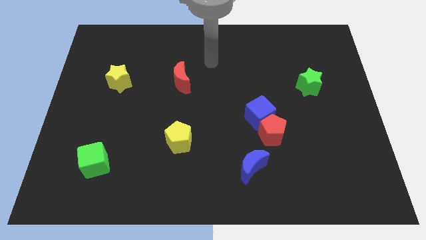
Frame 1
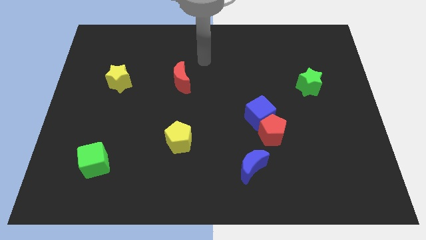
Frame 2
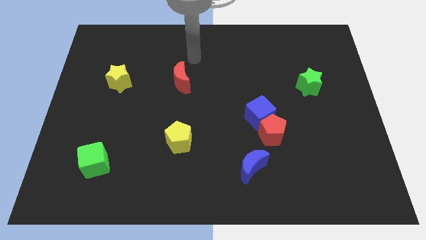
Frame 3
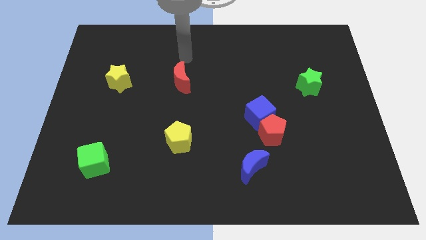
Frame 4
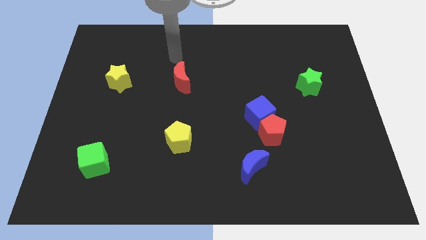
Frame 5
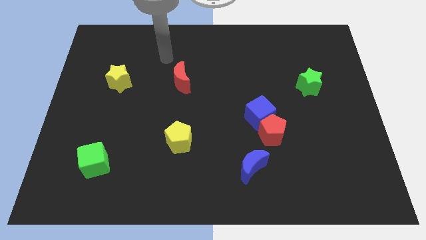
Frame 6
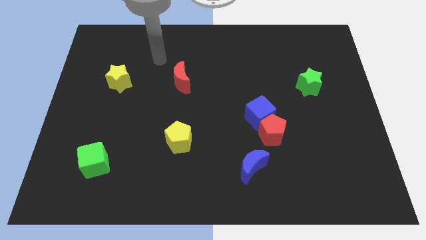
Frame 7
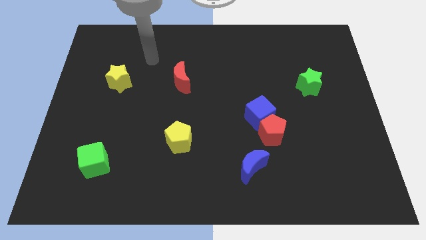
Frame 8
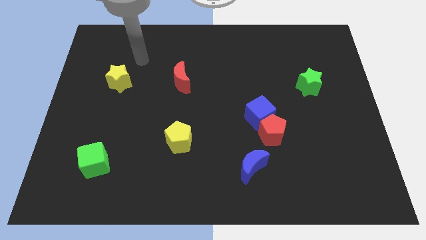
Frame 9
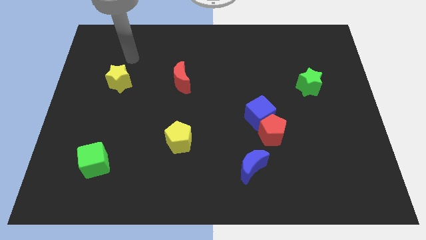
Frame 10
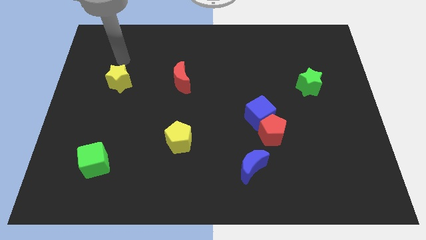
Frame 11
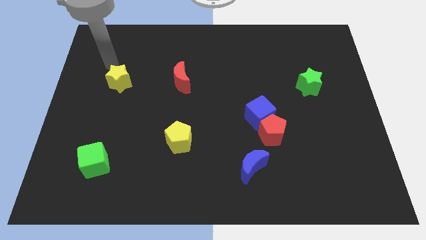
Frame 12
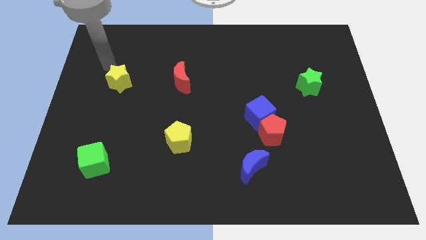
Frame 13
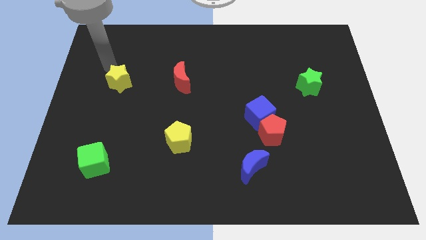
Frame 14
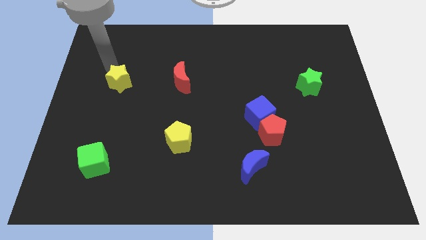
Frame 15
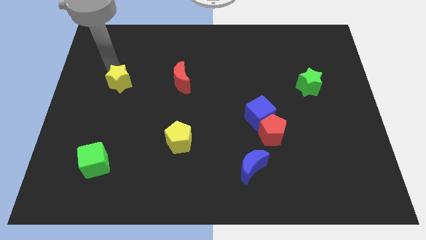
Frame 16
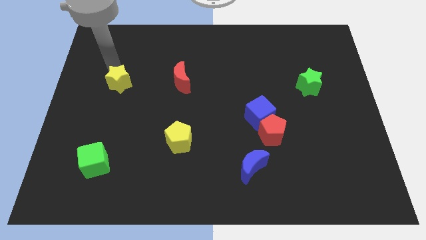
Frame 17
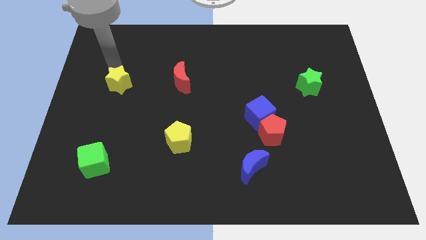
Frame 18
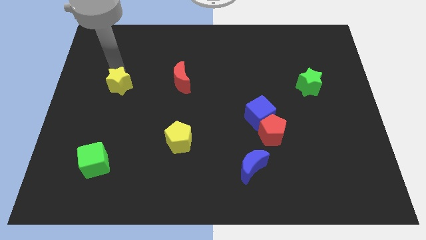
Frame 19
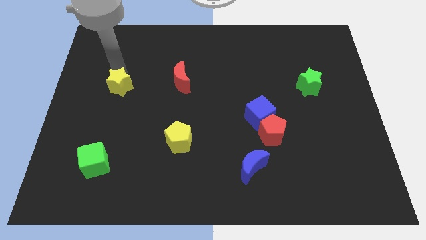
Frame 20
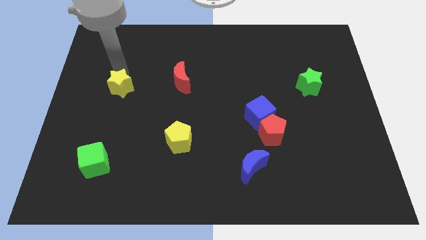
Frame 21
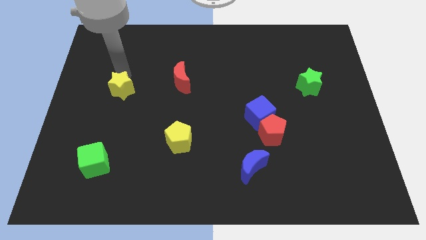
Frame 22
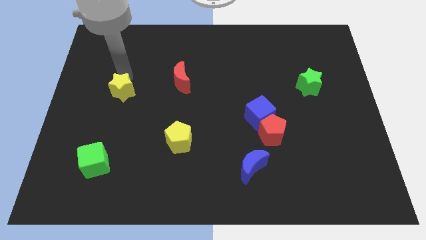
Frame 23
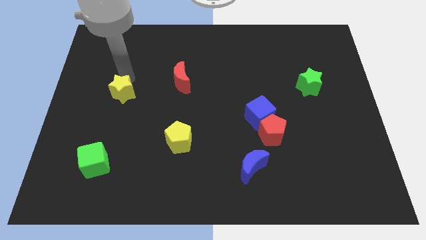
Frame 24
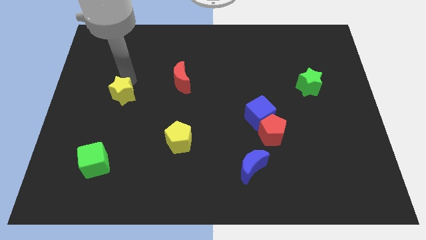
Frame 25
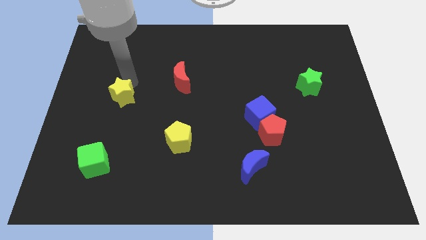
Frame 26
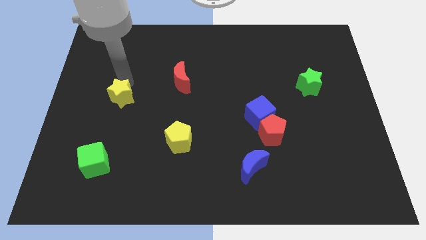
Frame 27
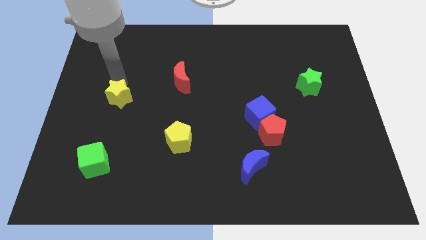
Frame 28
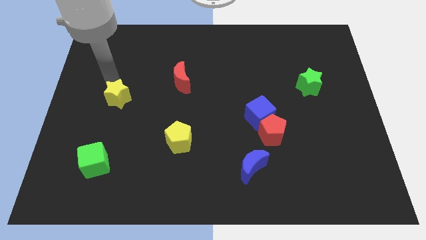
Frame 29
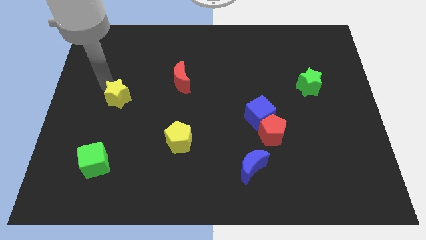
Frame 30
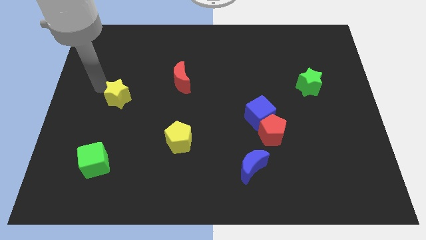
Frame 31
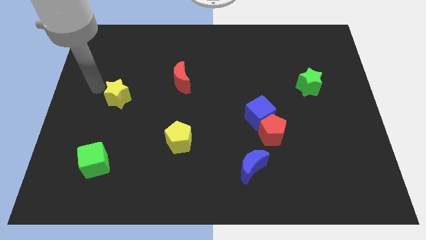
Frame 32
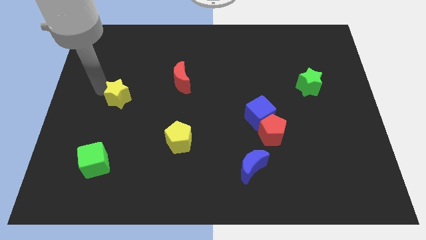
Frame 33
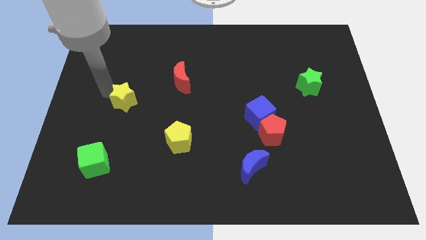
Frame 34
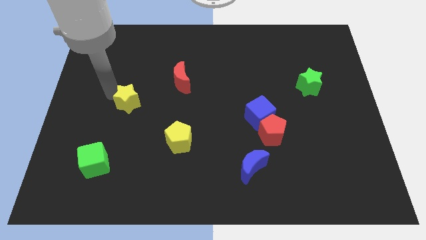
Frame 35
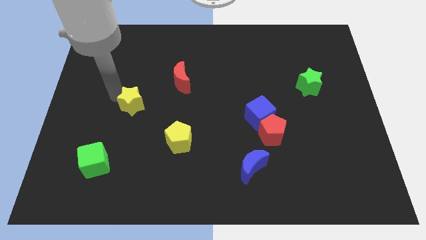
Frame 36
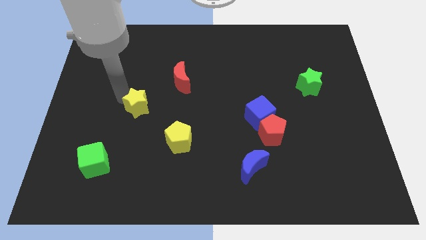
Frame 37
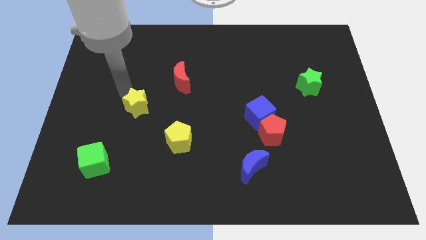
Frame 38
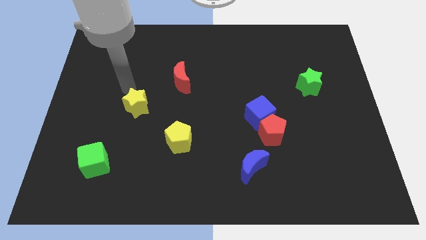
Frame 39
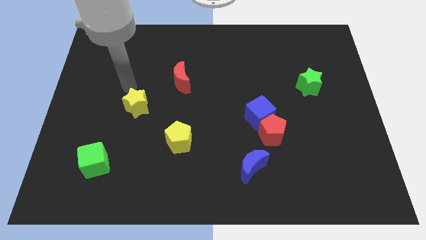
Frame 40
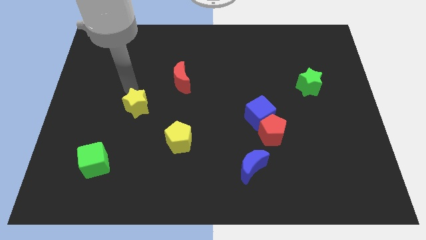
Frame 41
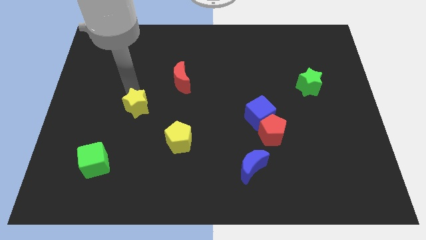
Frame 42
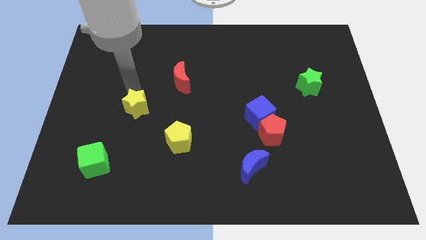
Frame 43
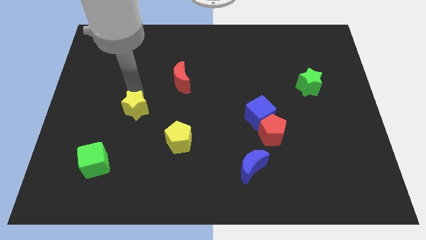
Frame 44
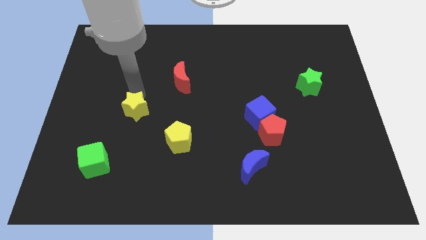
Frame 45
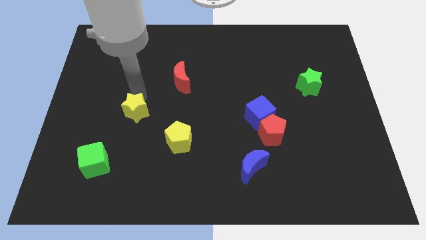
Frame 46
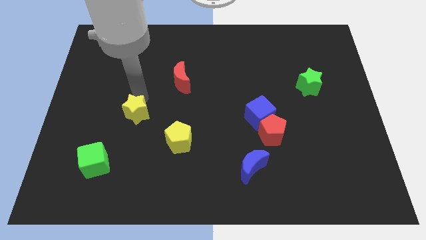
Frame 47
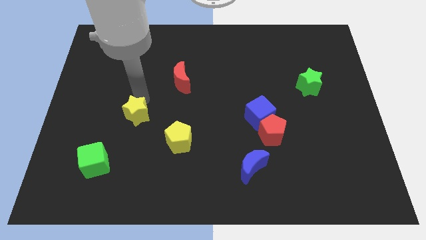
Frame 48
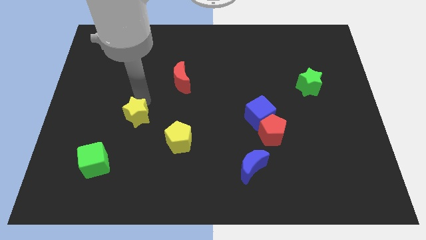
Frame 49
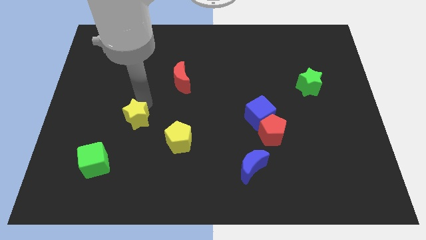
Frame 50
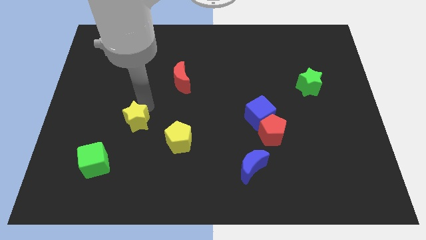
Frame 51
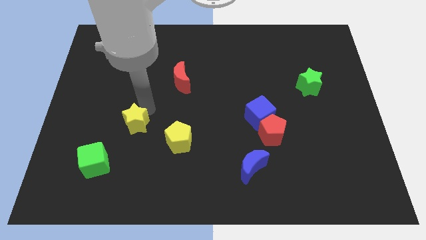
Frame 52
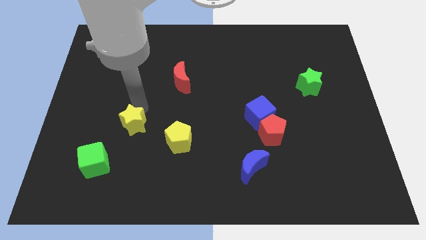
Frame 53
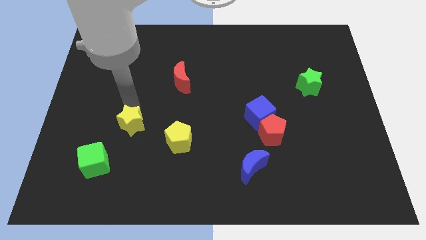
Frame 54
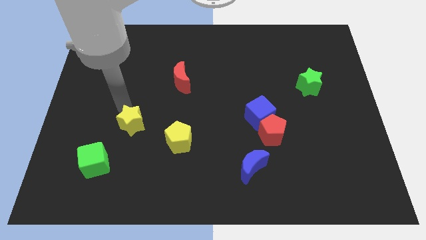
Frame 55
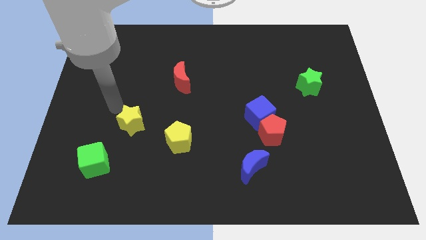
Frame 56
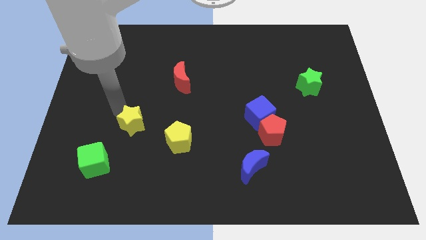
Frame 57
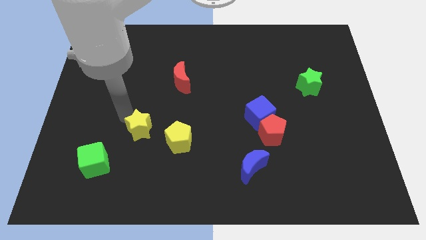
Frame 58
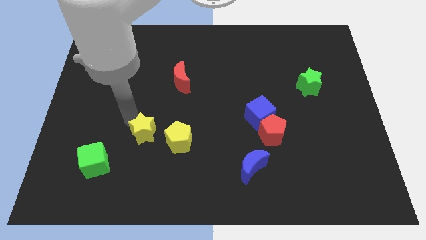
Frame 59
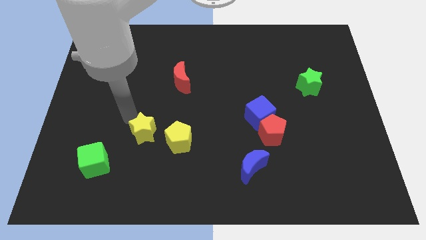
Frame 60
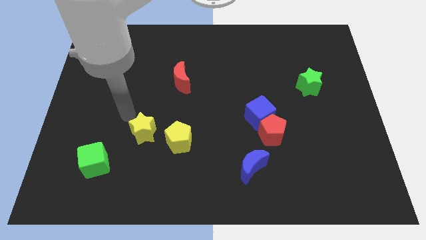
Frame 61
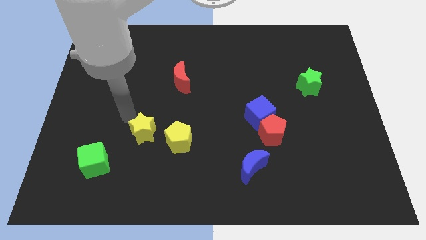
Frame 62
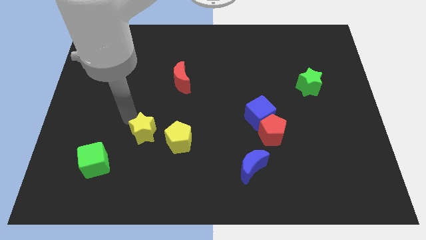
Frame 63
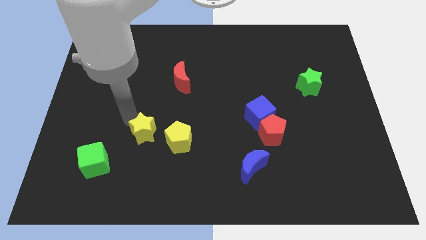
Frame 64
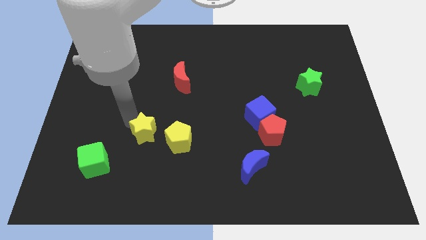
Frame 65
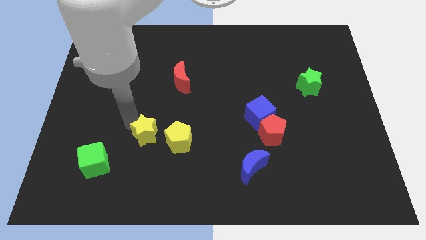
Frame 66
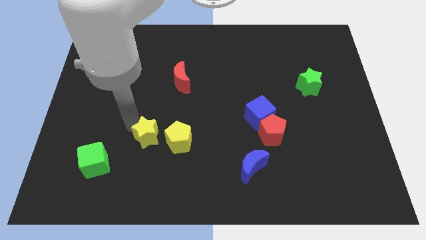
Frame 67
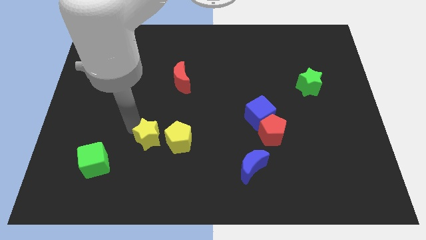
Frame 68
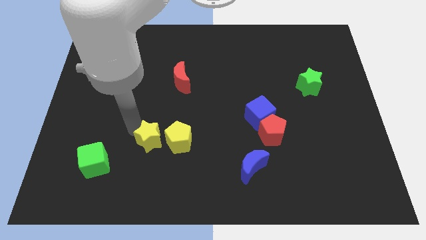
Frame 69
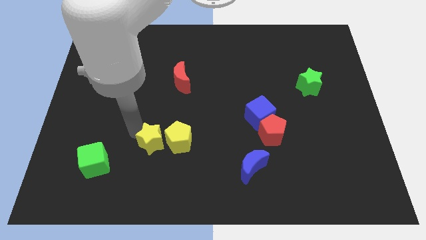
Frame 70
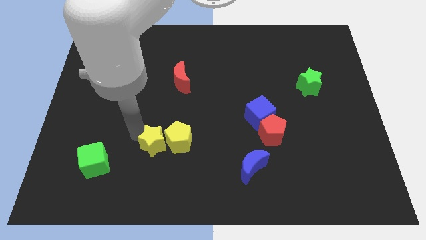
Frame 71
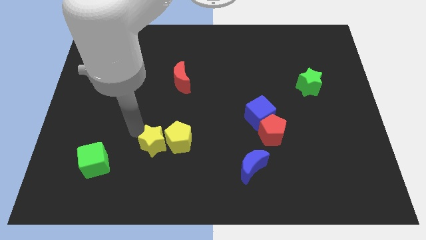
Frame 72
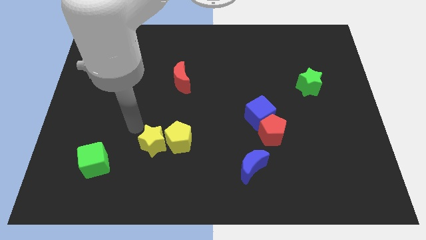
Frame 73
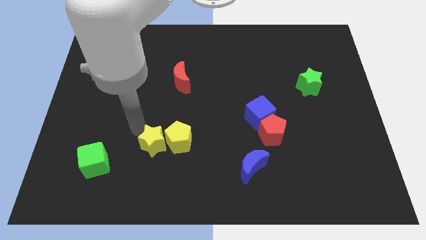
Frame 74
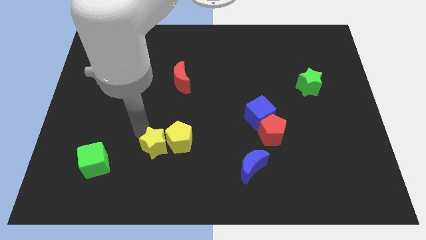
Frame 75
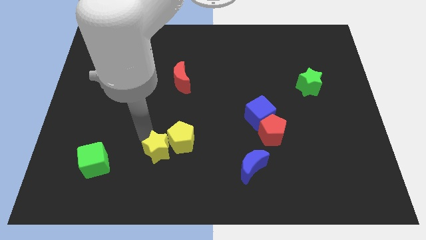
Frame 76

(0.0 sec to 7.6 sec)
move the yellow star downwards and to the right

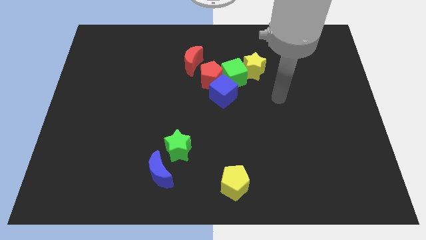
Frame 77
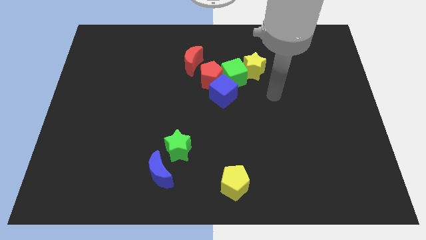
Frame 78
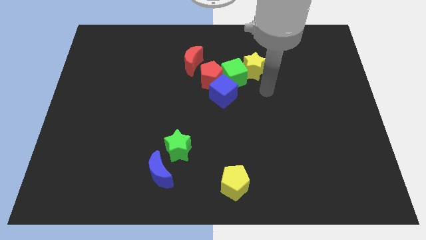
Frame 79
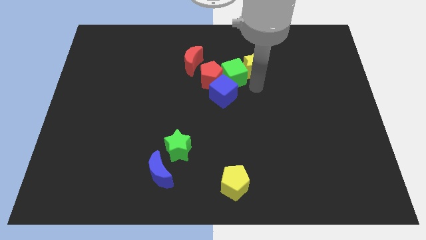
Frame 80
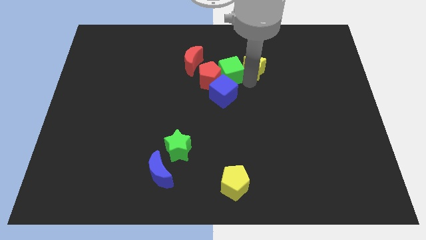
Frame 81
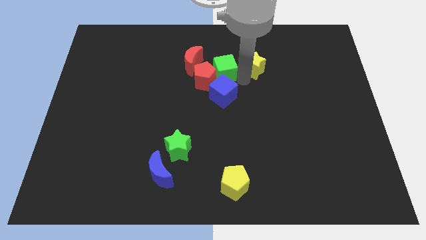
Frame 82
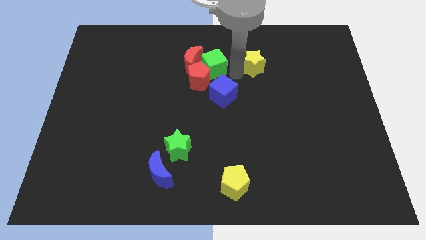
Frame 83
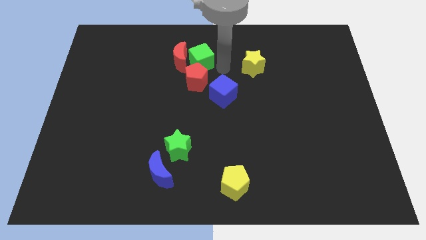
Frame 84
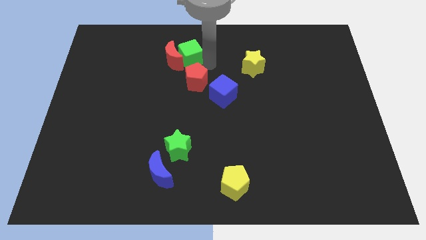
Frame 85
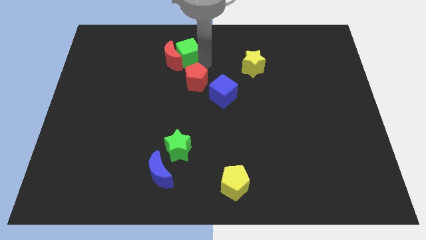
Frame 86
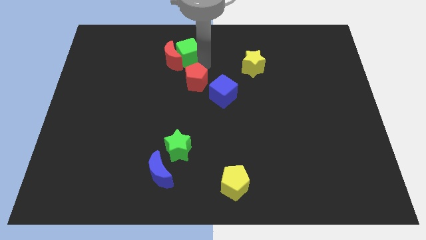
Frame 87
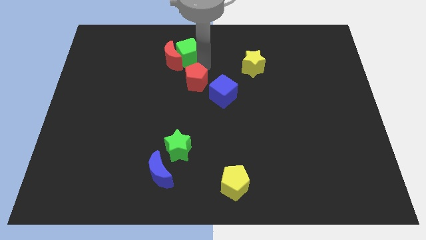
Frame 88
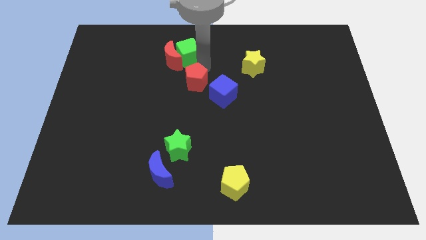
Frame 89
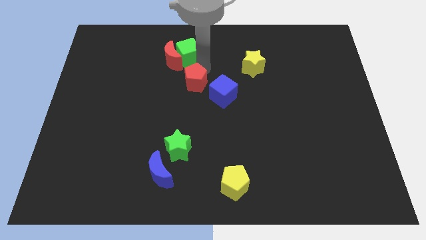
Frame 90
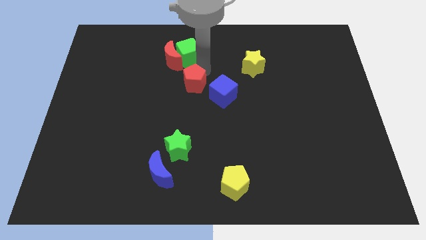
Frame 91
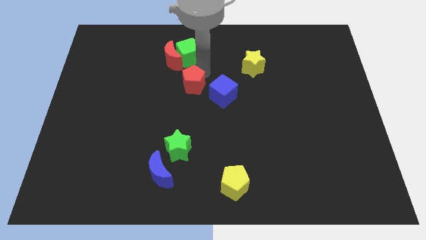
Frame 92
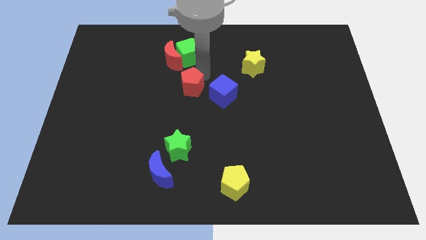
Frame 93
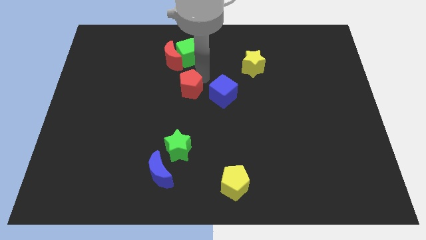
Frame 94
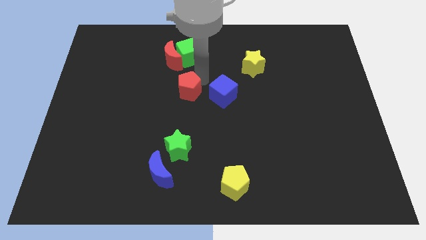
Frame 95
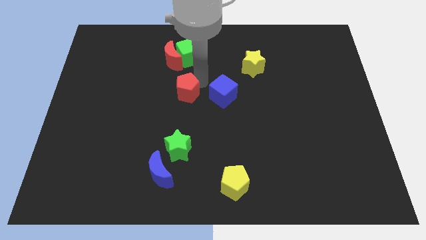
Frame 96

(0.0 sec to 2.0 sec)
slide the red pentagon a little down and then left
